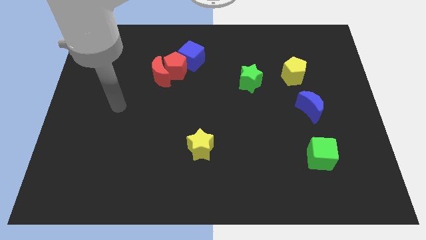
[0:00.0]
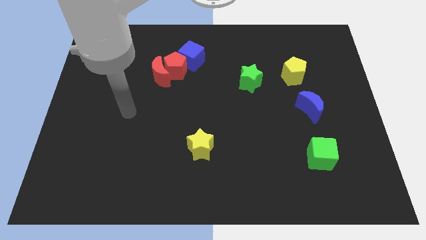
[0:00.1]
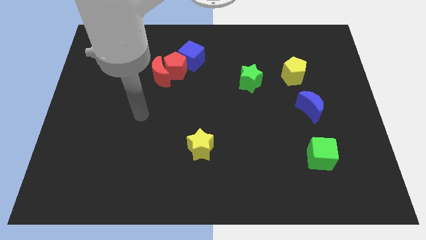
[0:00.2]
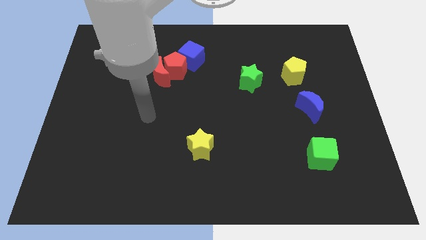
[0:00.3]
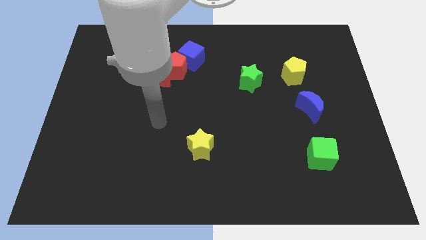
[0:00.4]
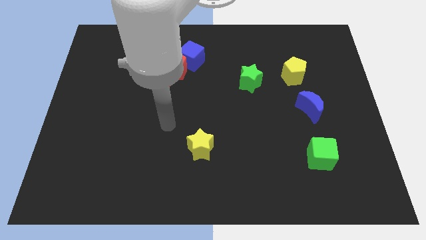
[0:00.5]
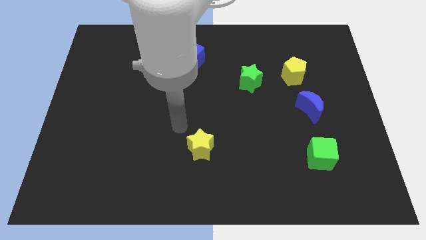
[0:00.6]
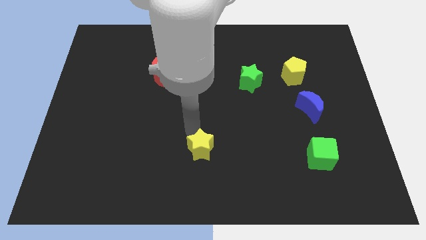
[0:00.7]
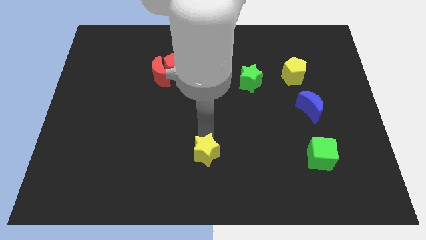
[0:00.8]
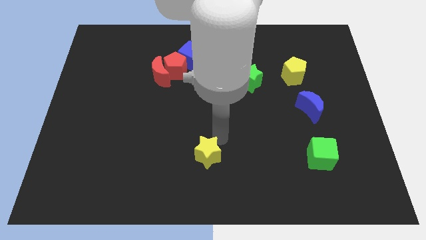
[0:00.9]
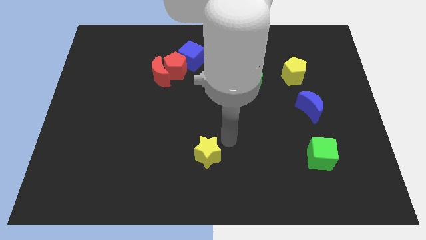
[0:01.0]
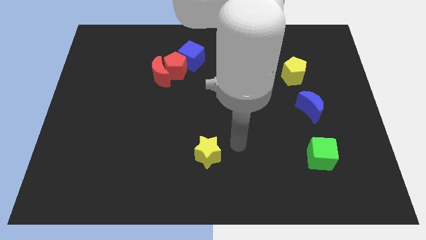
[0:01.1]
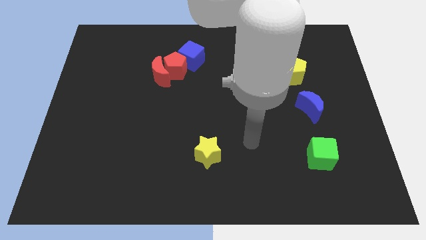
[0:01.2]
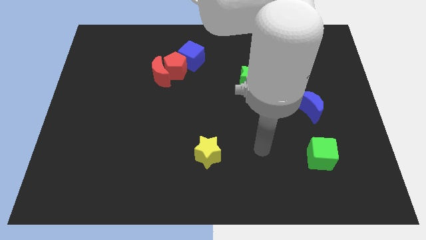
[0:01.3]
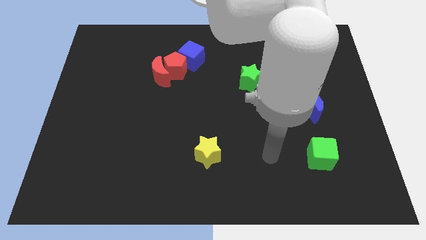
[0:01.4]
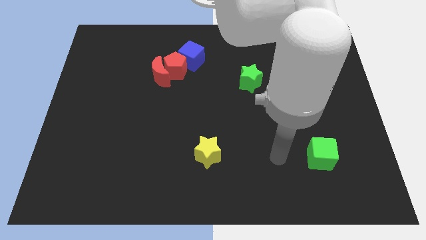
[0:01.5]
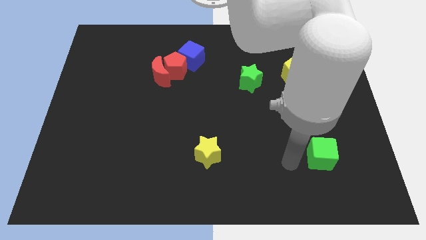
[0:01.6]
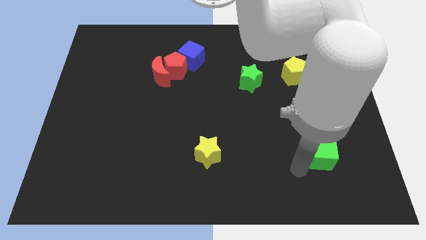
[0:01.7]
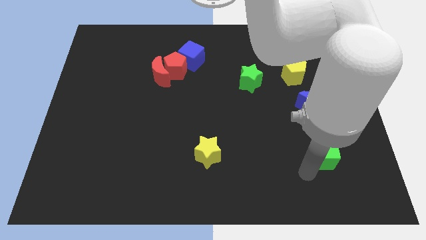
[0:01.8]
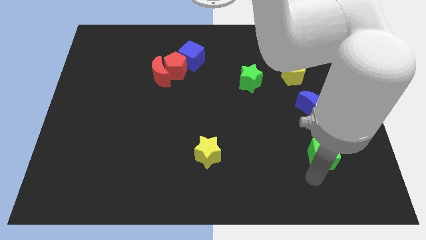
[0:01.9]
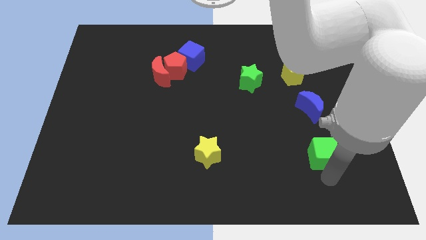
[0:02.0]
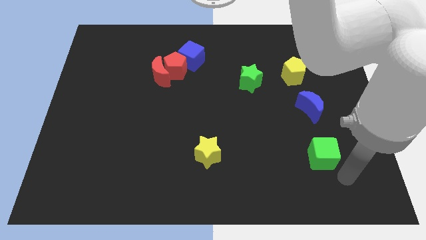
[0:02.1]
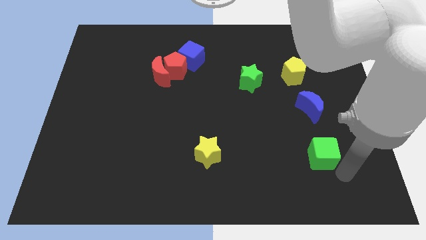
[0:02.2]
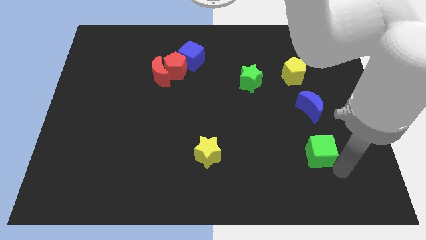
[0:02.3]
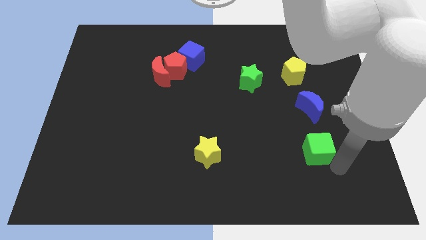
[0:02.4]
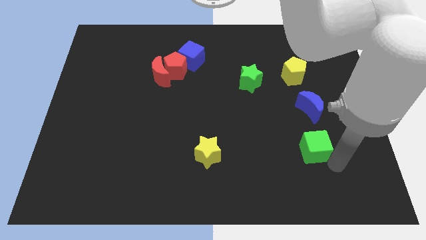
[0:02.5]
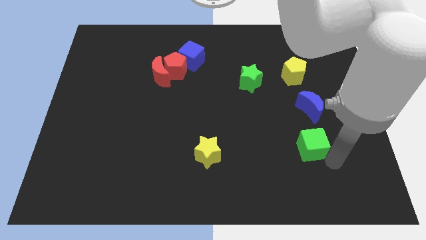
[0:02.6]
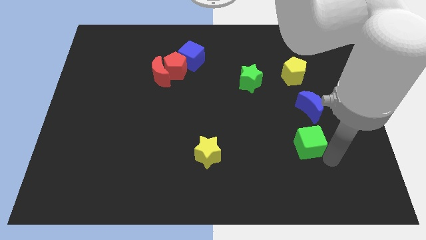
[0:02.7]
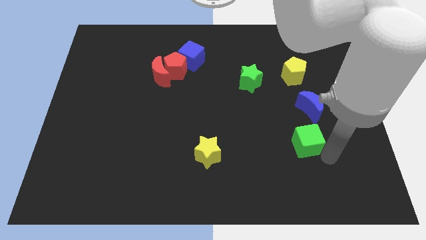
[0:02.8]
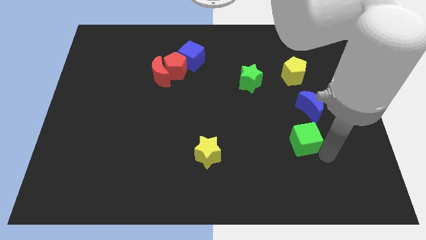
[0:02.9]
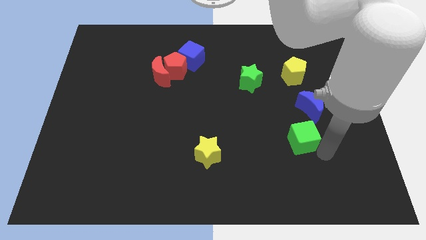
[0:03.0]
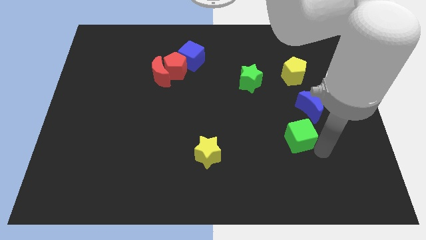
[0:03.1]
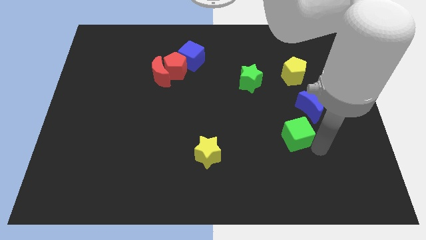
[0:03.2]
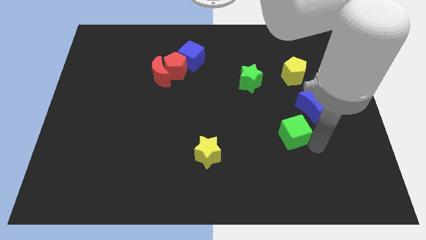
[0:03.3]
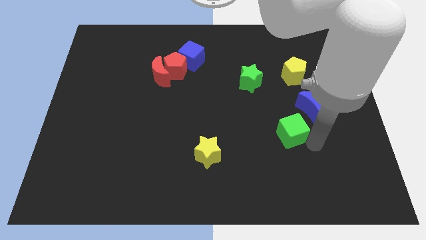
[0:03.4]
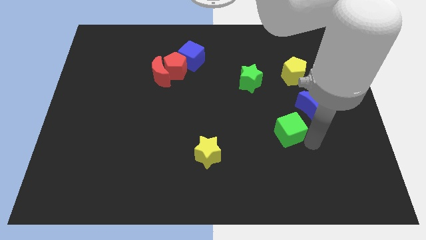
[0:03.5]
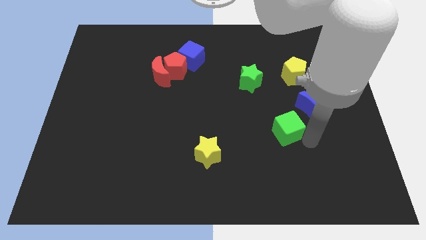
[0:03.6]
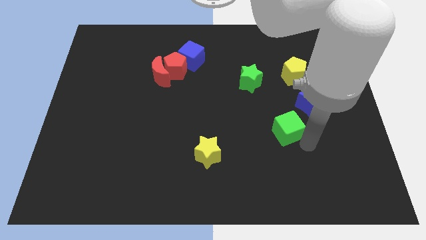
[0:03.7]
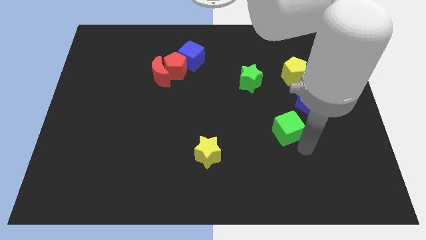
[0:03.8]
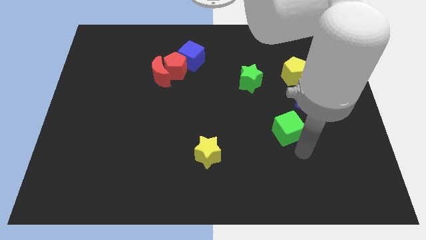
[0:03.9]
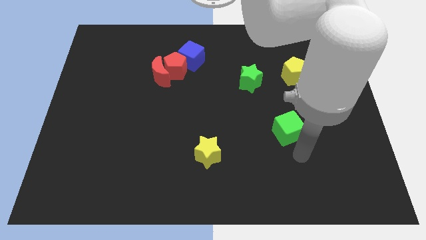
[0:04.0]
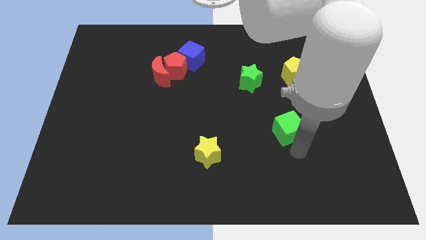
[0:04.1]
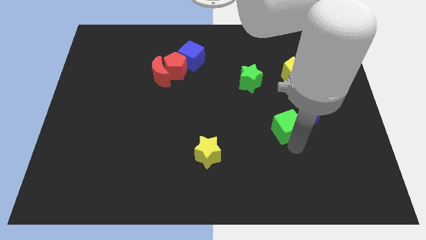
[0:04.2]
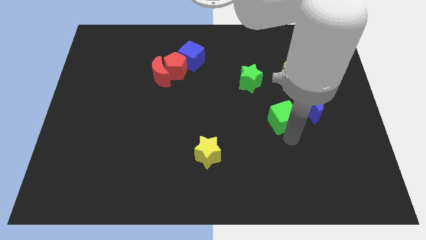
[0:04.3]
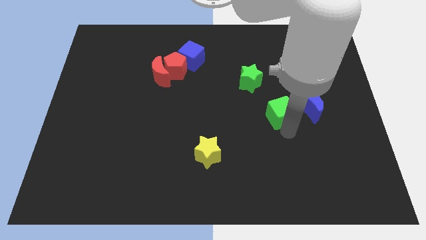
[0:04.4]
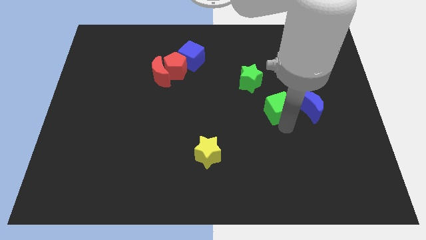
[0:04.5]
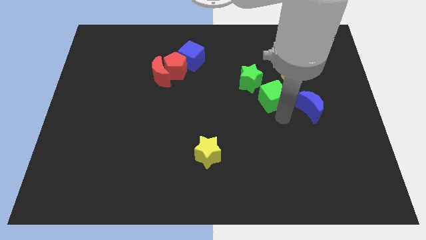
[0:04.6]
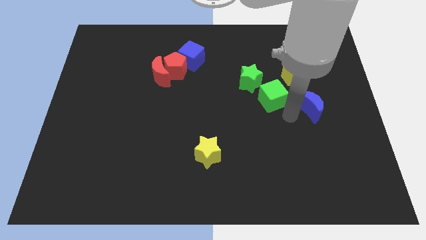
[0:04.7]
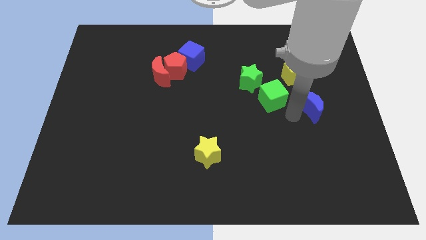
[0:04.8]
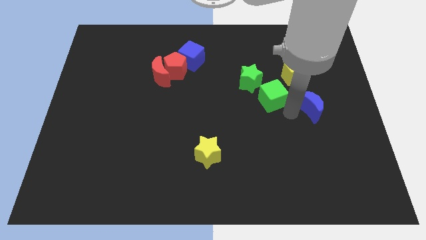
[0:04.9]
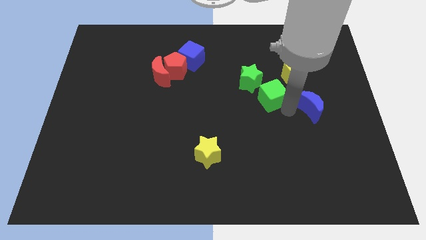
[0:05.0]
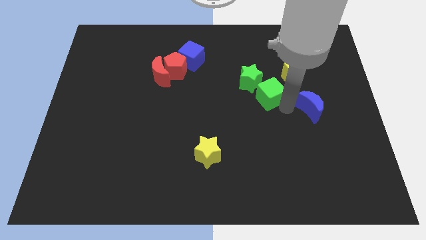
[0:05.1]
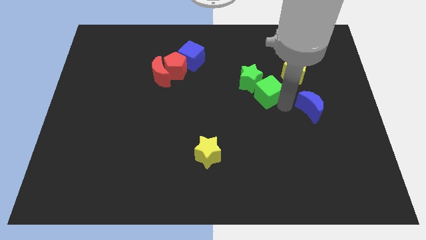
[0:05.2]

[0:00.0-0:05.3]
put the green cube to the green star

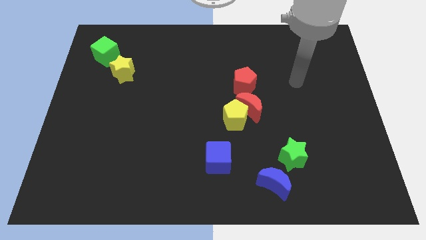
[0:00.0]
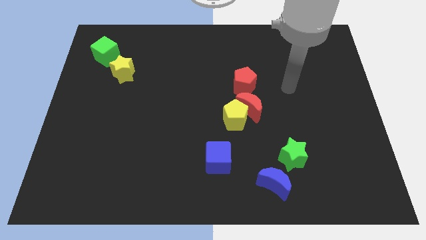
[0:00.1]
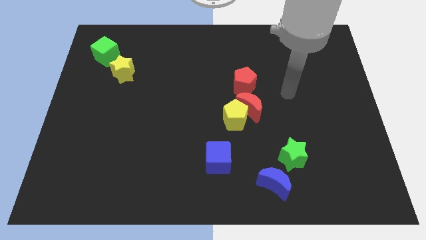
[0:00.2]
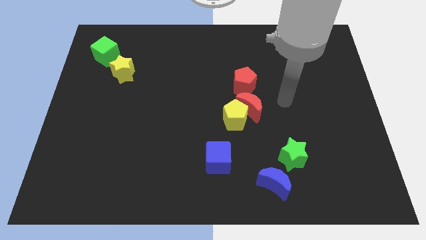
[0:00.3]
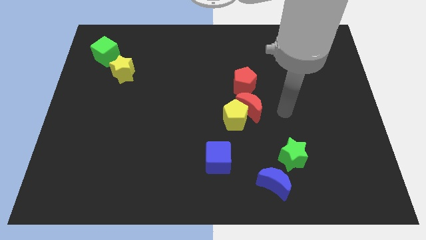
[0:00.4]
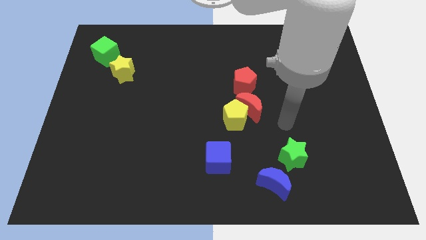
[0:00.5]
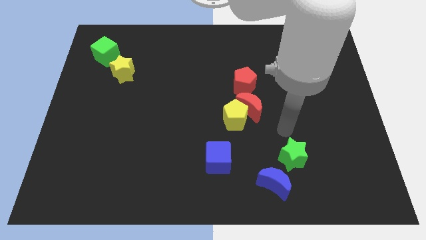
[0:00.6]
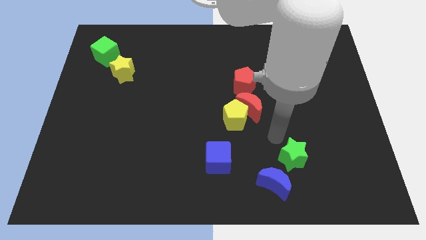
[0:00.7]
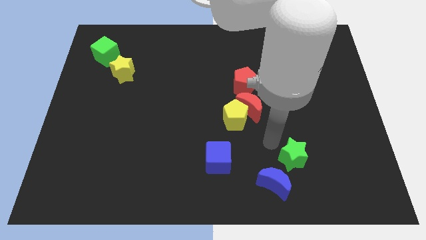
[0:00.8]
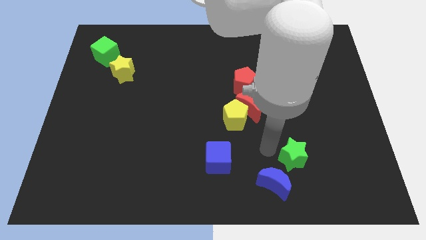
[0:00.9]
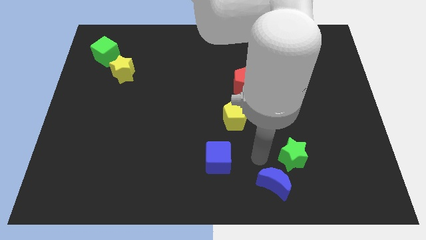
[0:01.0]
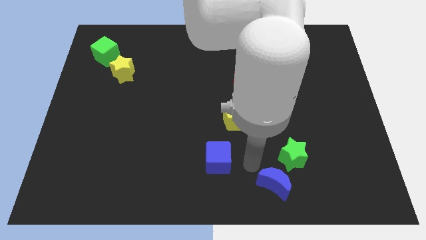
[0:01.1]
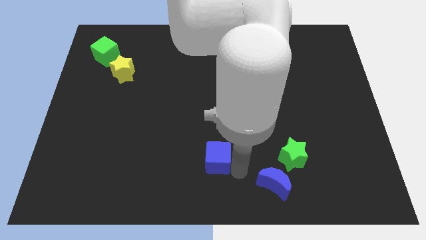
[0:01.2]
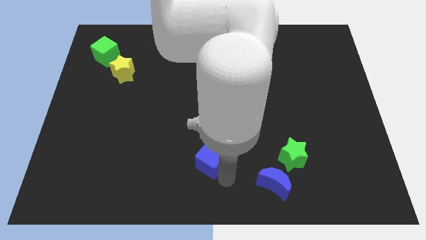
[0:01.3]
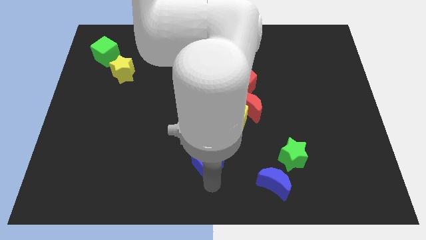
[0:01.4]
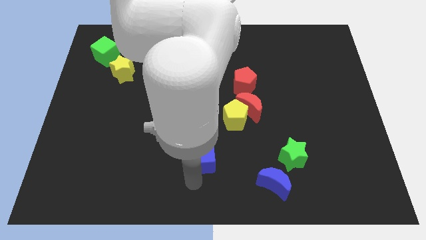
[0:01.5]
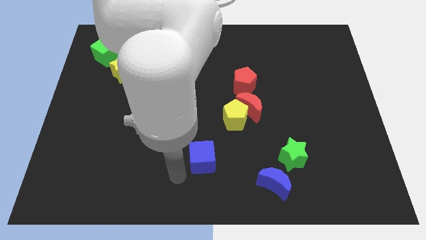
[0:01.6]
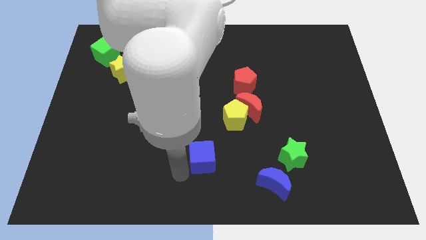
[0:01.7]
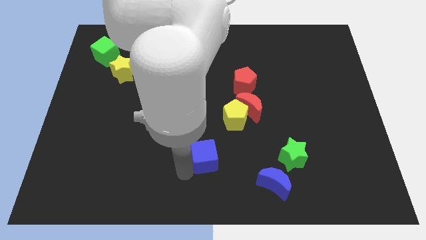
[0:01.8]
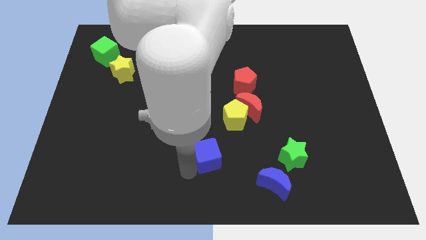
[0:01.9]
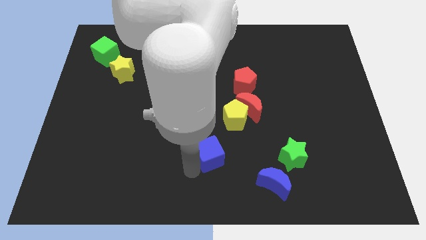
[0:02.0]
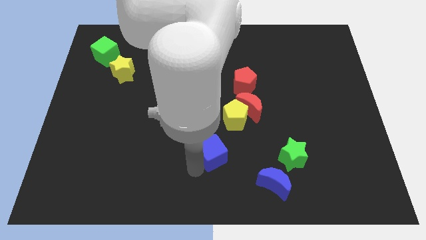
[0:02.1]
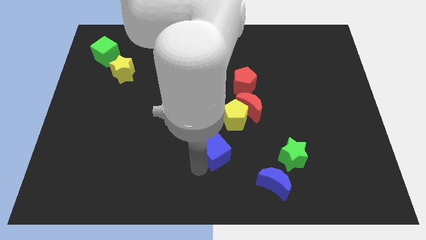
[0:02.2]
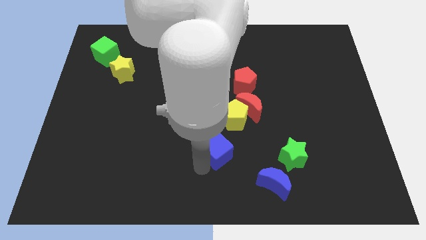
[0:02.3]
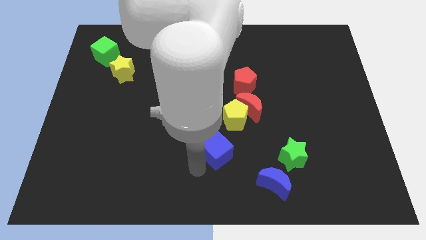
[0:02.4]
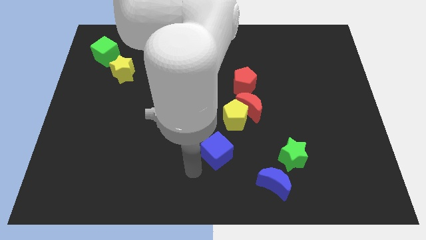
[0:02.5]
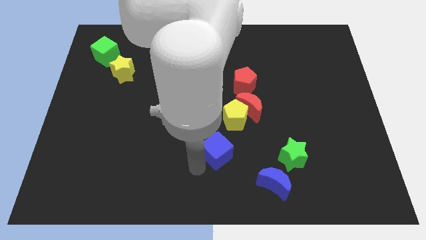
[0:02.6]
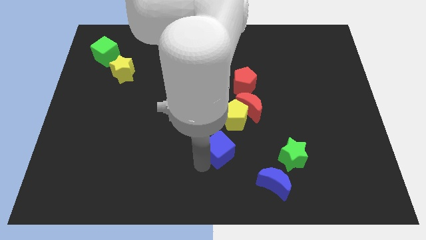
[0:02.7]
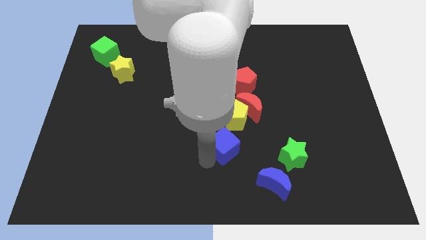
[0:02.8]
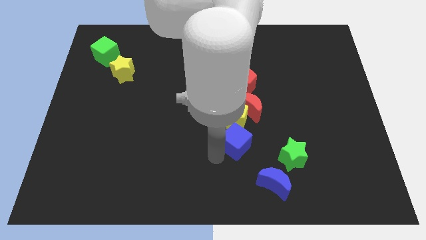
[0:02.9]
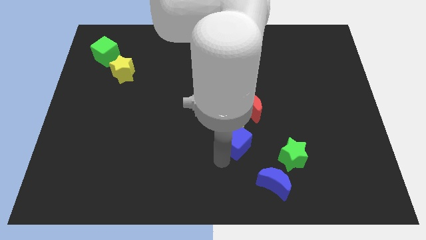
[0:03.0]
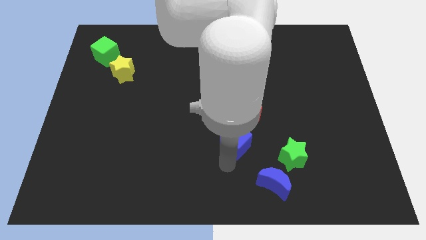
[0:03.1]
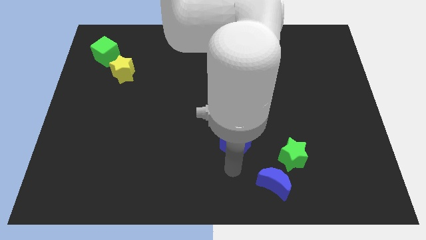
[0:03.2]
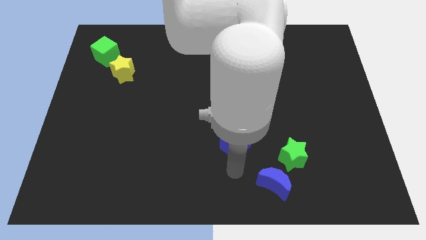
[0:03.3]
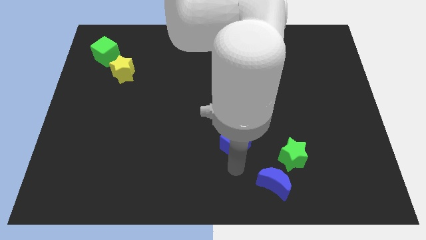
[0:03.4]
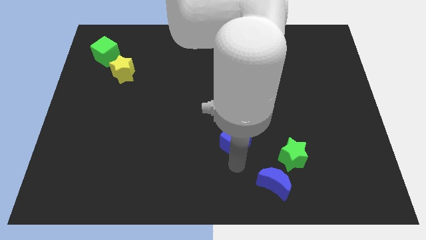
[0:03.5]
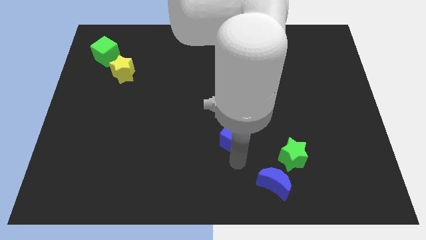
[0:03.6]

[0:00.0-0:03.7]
slide the blue cube close to the yellow pentagon
